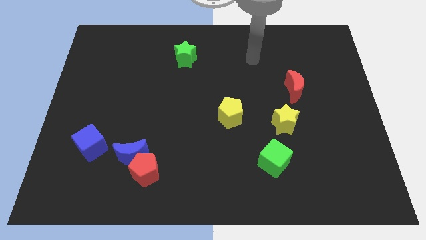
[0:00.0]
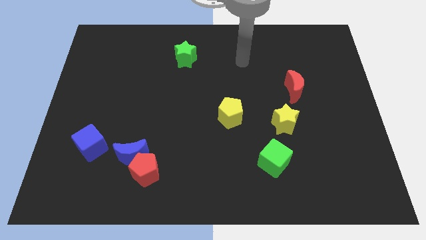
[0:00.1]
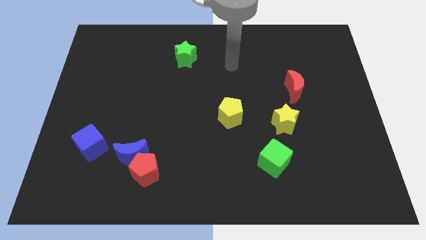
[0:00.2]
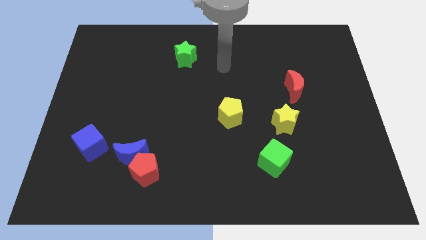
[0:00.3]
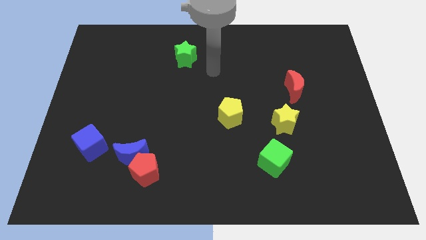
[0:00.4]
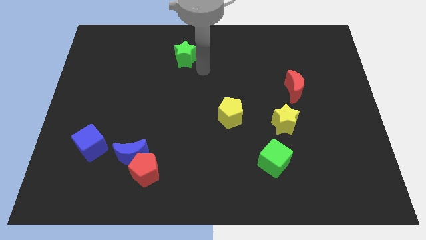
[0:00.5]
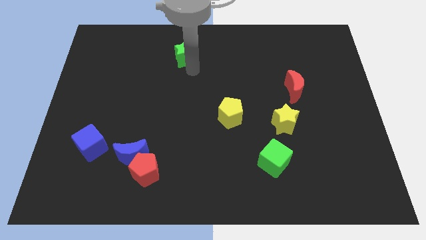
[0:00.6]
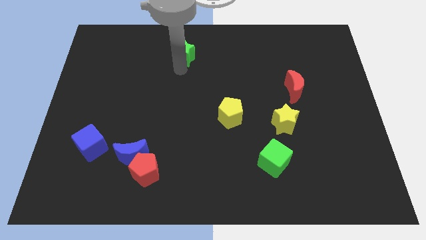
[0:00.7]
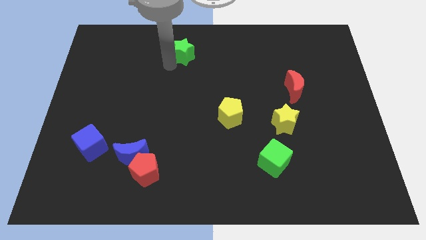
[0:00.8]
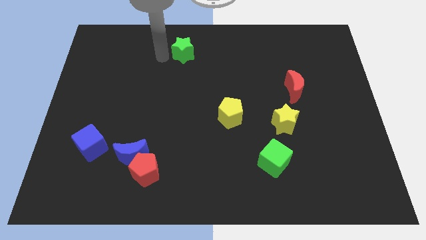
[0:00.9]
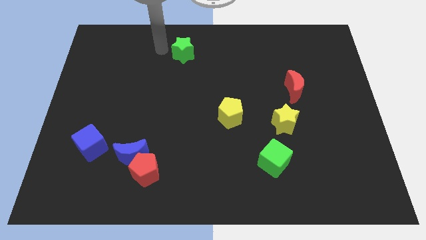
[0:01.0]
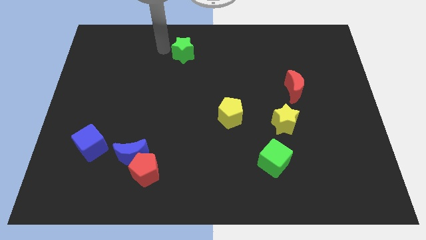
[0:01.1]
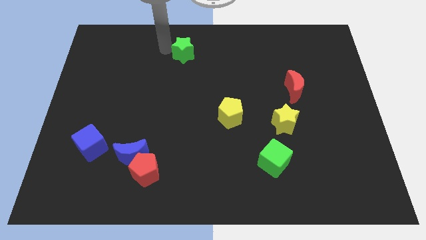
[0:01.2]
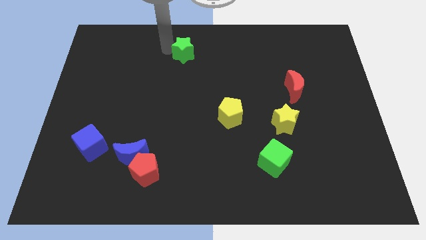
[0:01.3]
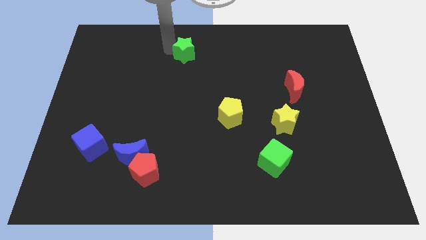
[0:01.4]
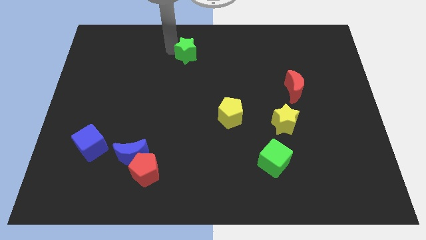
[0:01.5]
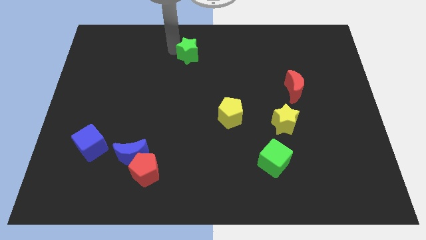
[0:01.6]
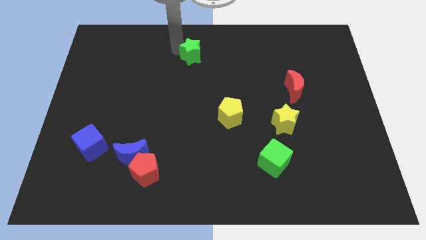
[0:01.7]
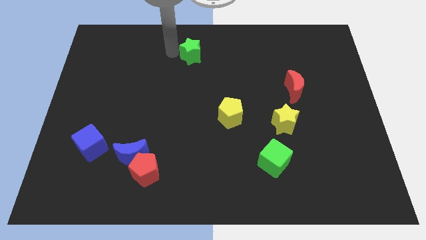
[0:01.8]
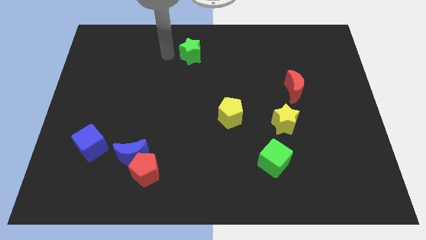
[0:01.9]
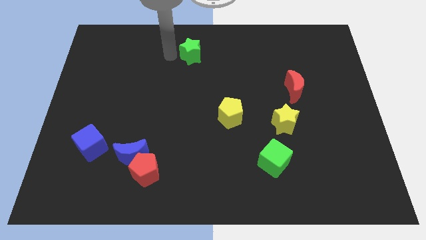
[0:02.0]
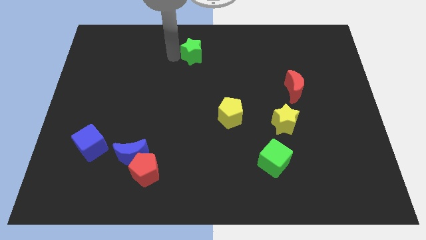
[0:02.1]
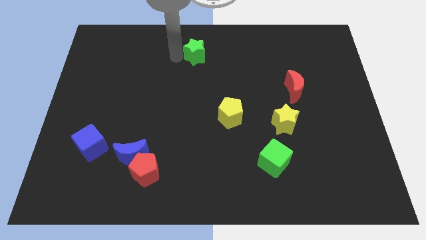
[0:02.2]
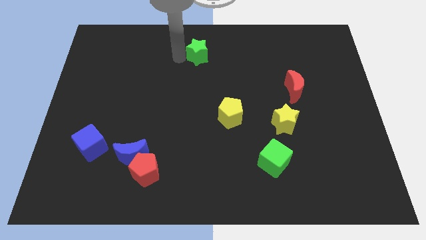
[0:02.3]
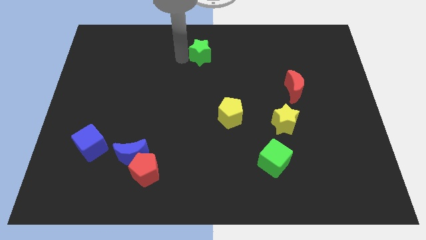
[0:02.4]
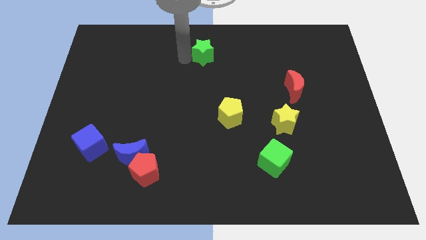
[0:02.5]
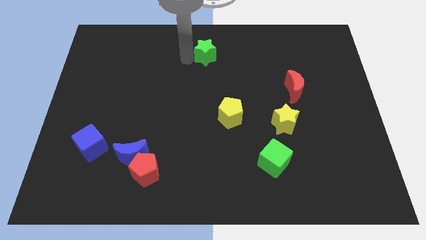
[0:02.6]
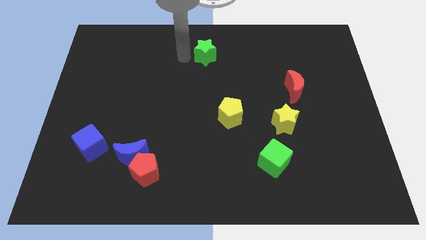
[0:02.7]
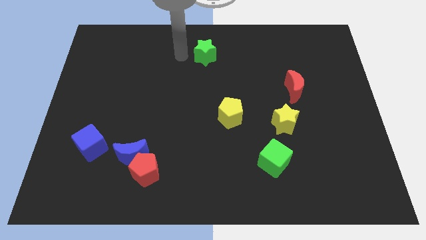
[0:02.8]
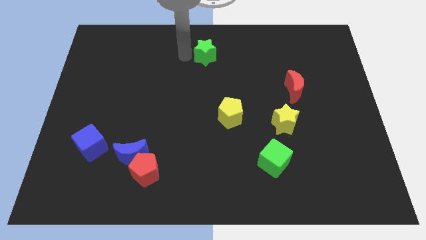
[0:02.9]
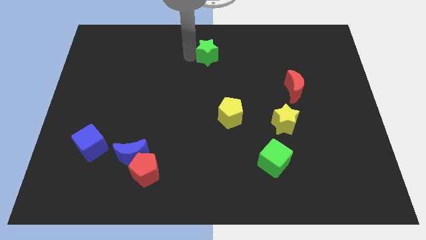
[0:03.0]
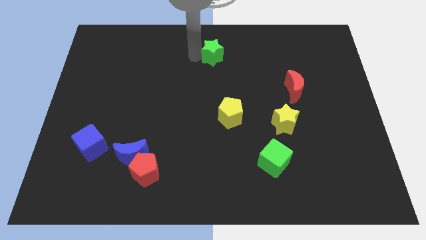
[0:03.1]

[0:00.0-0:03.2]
slightly push the green star right

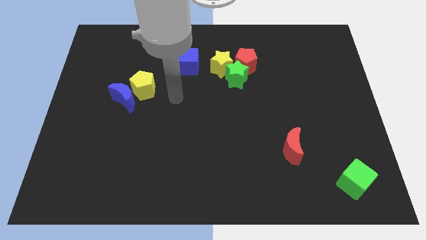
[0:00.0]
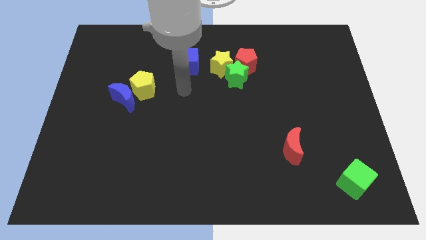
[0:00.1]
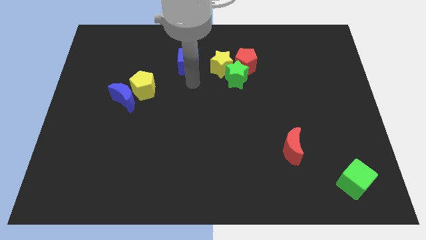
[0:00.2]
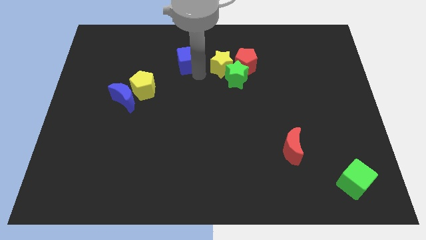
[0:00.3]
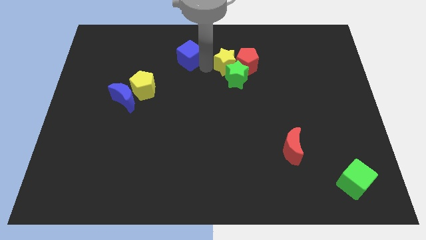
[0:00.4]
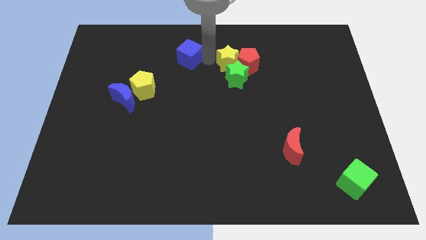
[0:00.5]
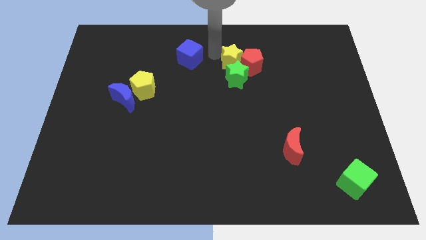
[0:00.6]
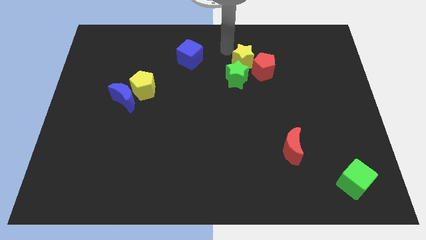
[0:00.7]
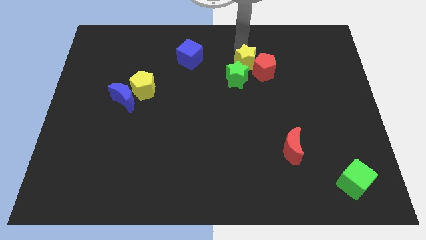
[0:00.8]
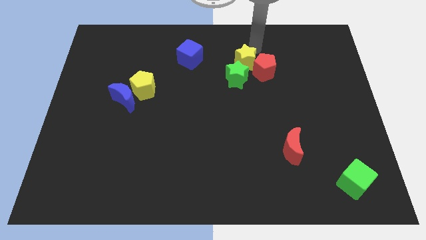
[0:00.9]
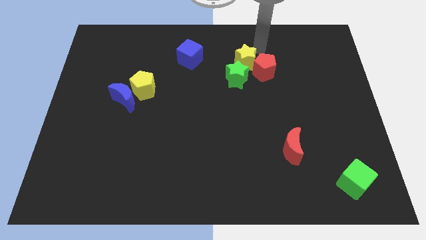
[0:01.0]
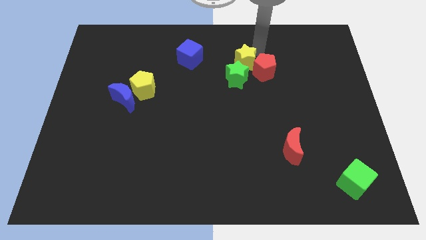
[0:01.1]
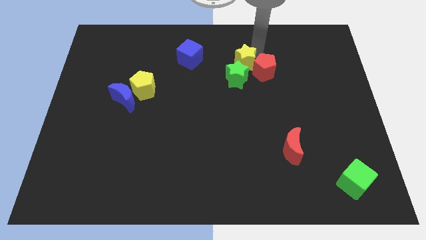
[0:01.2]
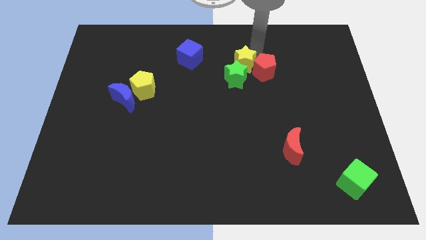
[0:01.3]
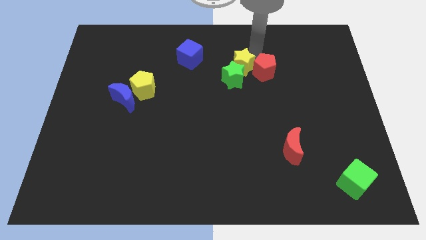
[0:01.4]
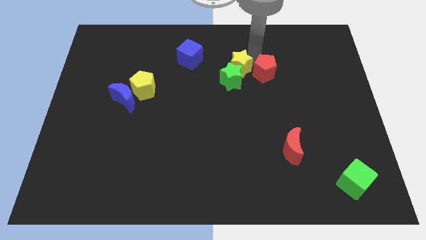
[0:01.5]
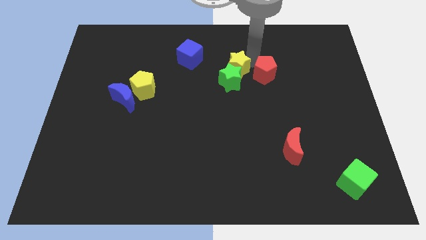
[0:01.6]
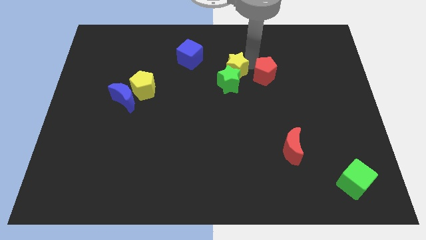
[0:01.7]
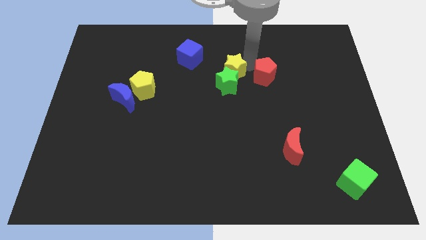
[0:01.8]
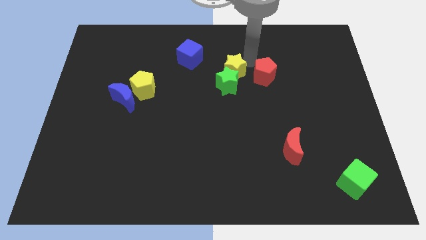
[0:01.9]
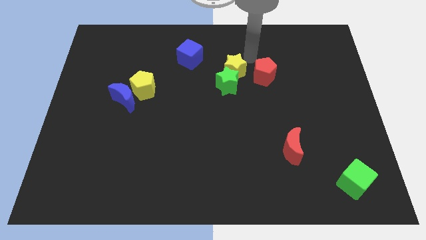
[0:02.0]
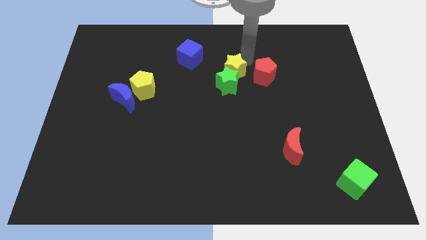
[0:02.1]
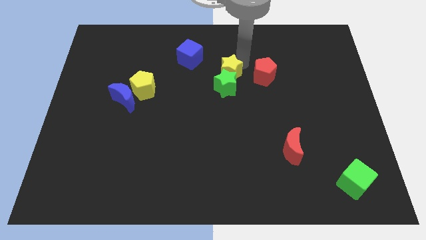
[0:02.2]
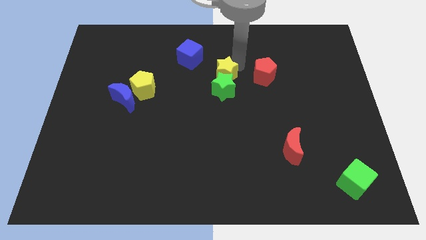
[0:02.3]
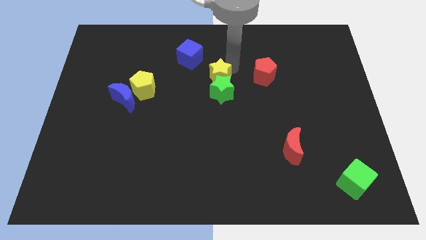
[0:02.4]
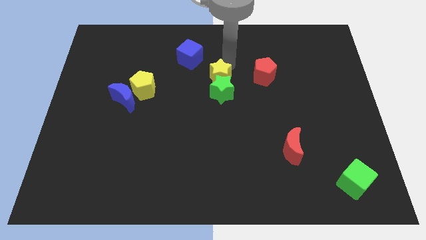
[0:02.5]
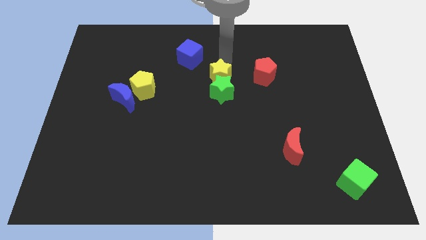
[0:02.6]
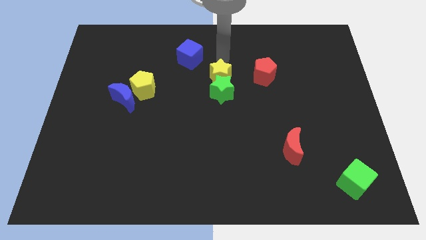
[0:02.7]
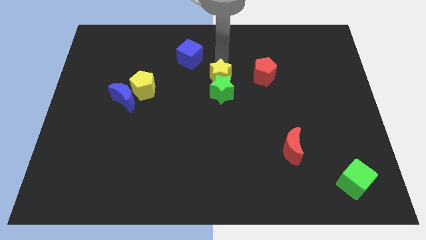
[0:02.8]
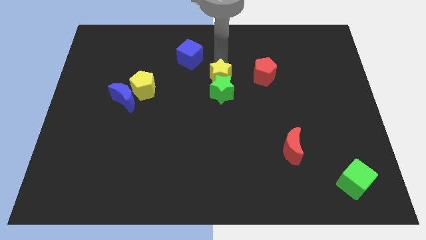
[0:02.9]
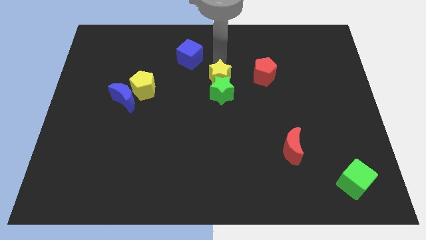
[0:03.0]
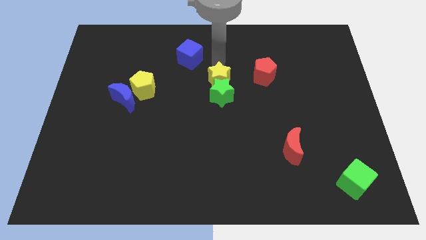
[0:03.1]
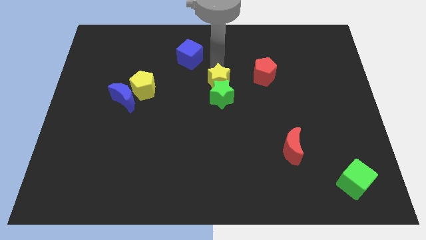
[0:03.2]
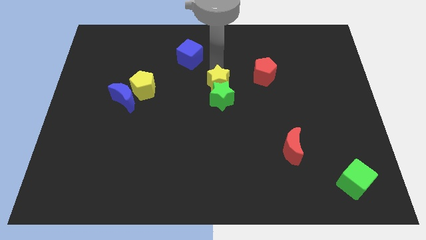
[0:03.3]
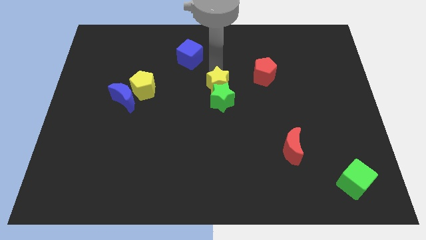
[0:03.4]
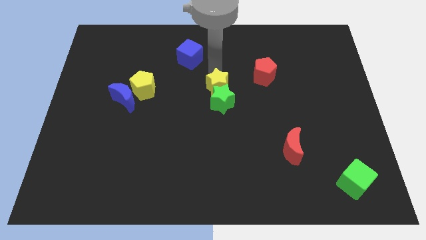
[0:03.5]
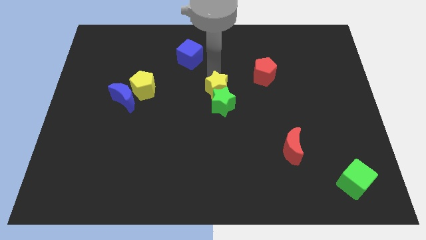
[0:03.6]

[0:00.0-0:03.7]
move the yellow star slightly down

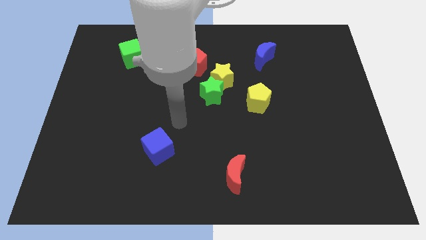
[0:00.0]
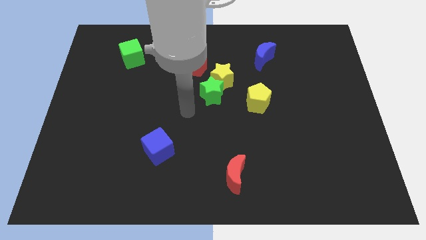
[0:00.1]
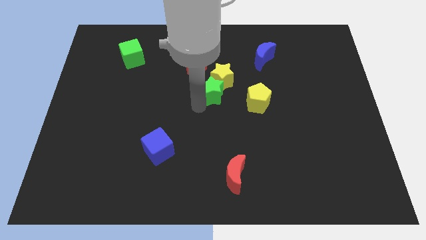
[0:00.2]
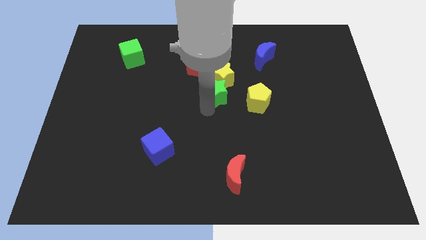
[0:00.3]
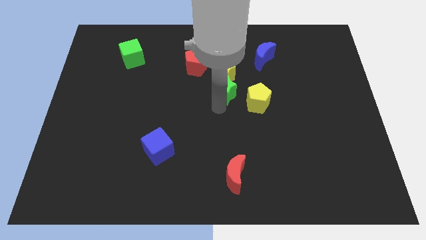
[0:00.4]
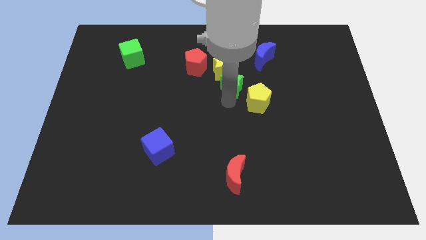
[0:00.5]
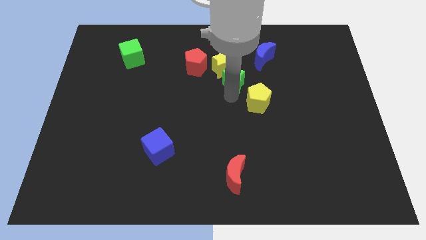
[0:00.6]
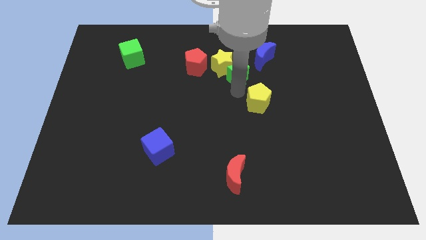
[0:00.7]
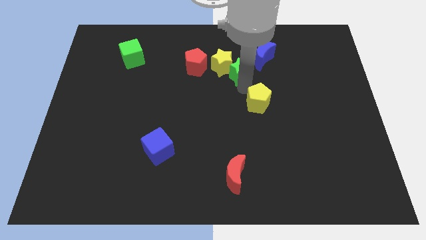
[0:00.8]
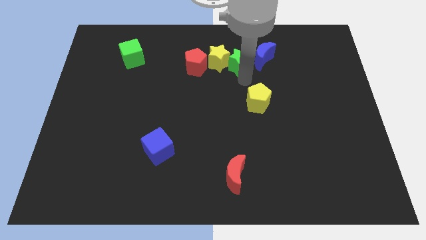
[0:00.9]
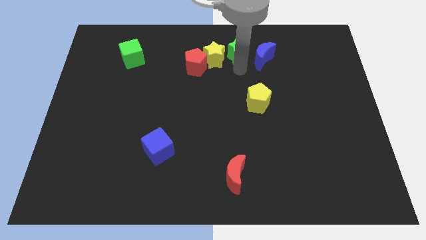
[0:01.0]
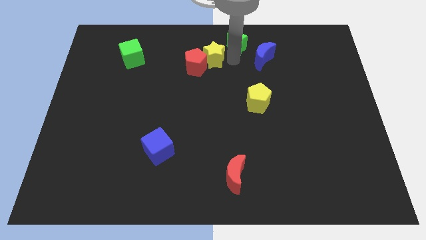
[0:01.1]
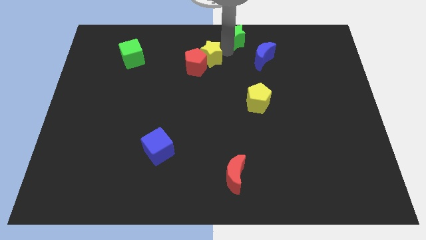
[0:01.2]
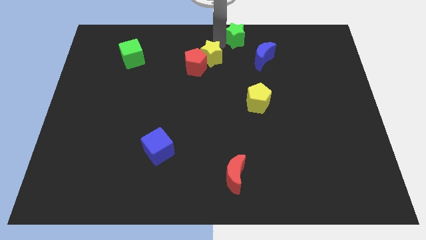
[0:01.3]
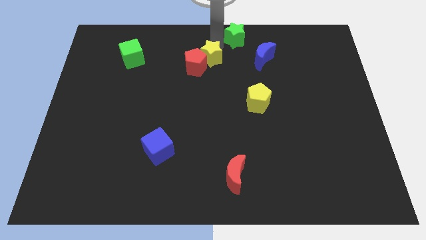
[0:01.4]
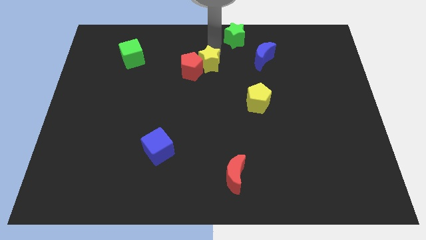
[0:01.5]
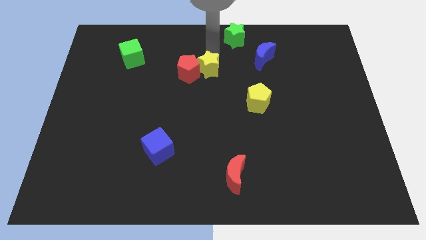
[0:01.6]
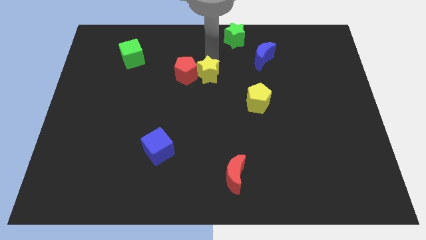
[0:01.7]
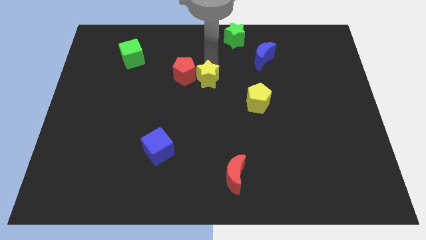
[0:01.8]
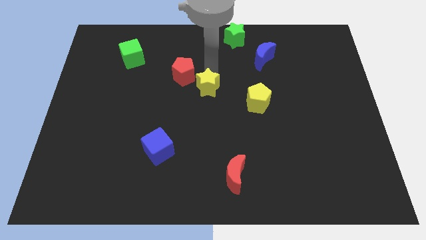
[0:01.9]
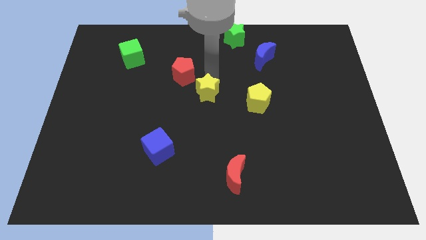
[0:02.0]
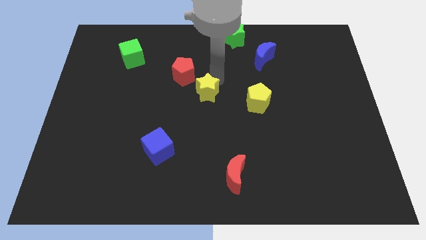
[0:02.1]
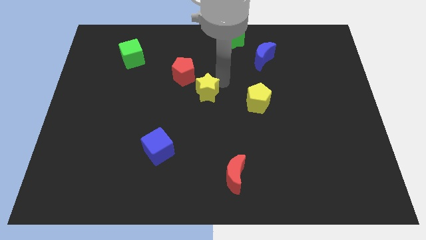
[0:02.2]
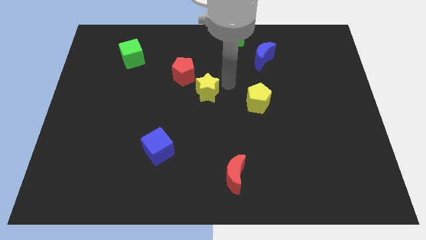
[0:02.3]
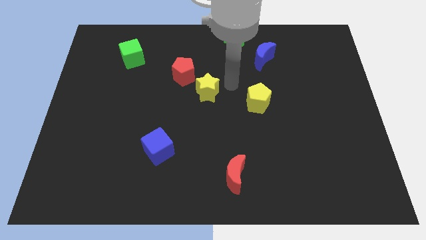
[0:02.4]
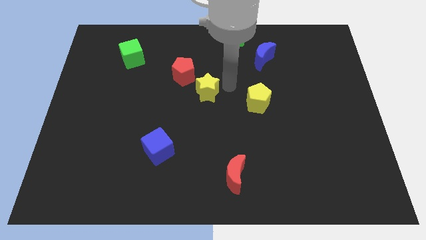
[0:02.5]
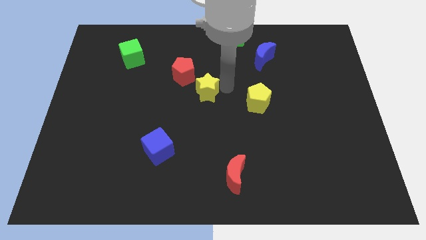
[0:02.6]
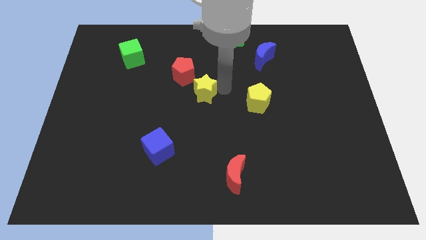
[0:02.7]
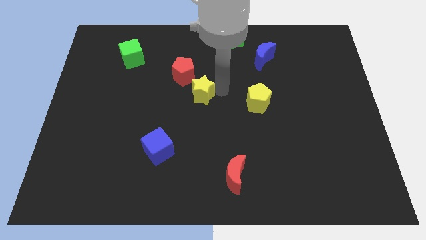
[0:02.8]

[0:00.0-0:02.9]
move the yellow star diagonally down and to the left a little bit
